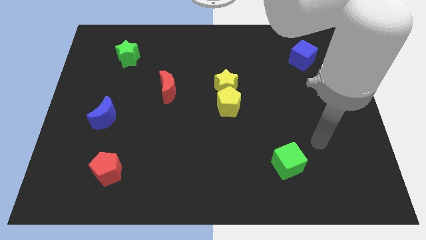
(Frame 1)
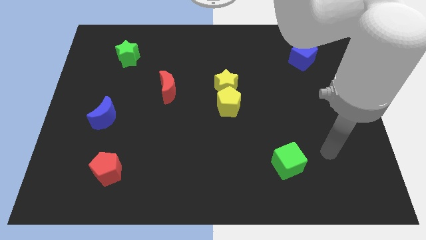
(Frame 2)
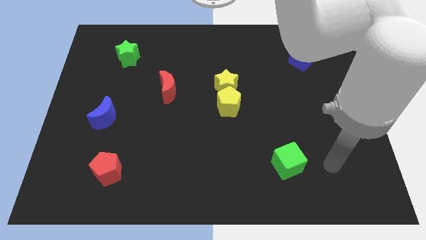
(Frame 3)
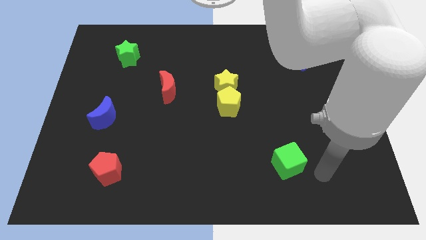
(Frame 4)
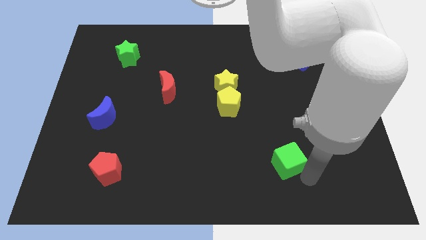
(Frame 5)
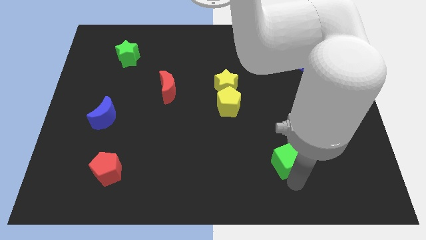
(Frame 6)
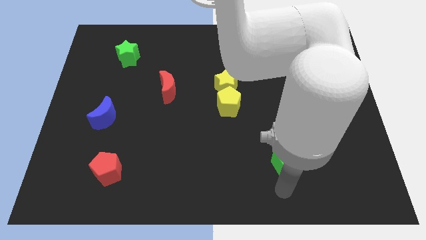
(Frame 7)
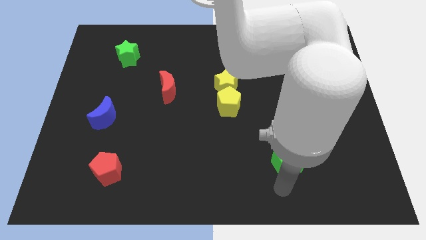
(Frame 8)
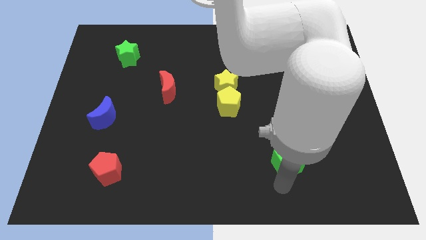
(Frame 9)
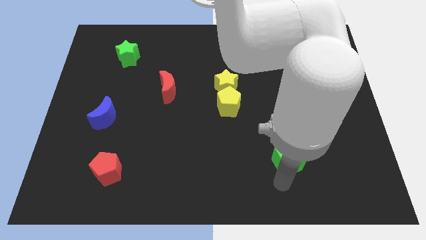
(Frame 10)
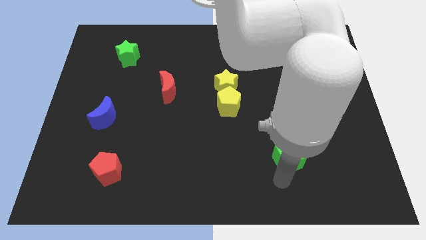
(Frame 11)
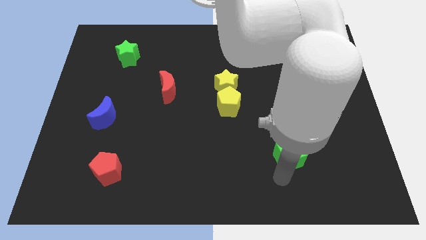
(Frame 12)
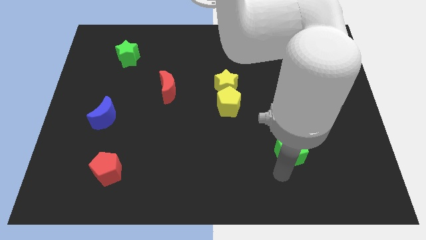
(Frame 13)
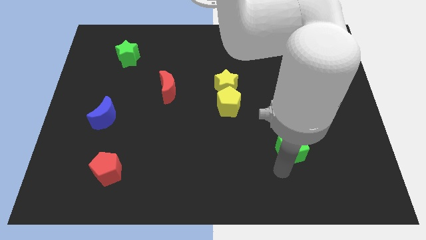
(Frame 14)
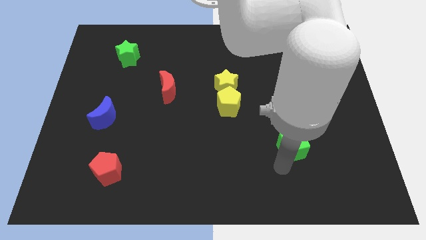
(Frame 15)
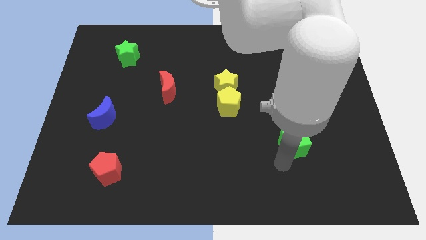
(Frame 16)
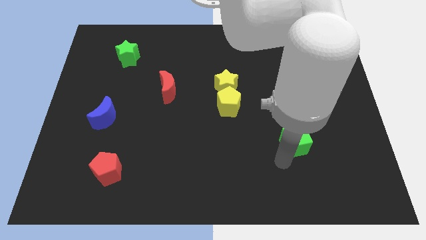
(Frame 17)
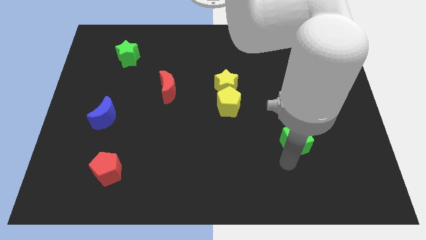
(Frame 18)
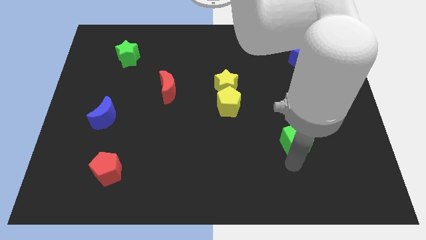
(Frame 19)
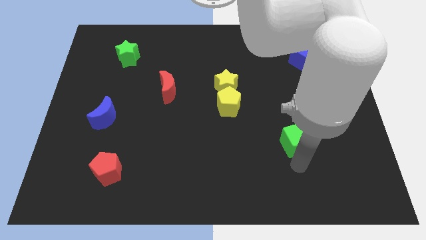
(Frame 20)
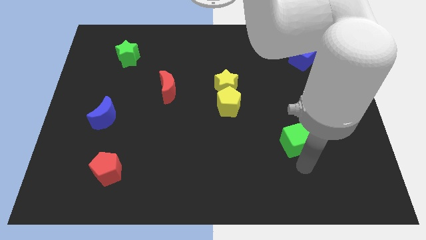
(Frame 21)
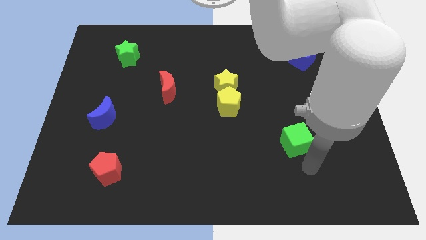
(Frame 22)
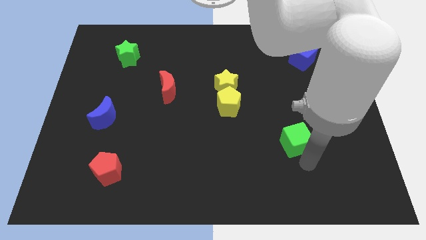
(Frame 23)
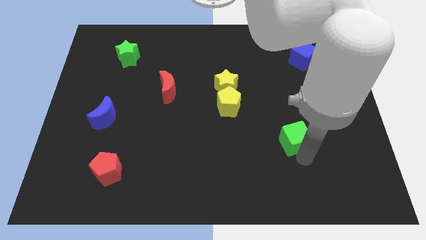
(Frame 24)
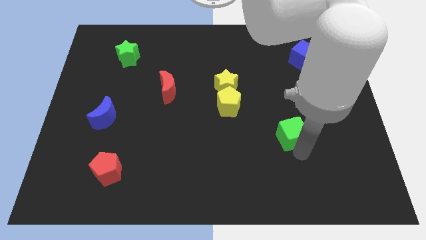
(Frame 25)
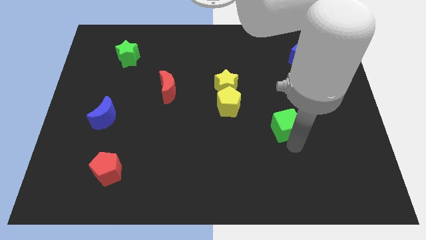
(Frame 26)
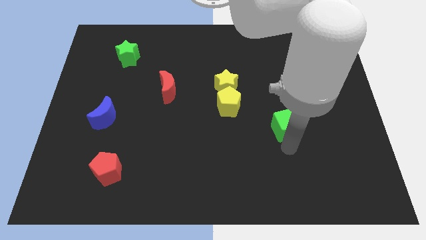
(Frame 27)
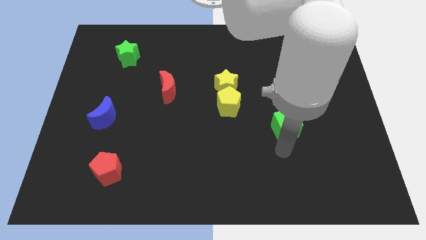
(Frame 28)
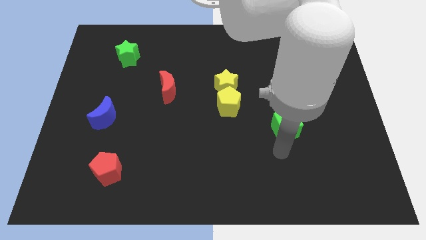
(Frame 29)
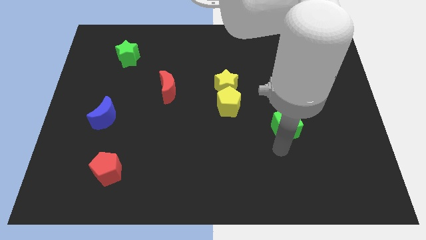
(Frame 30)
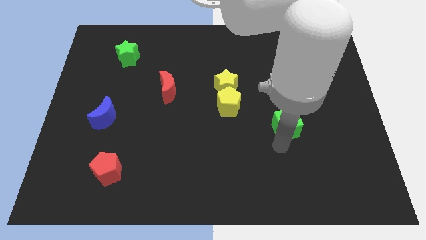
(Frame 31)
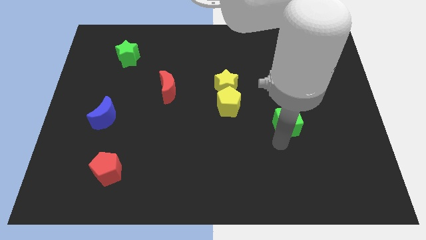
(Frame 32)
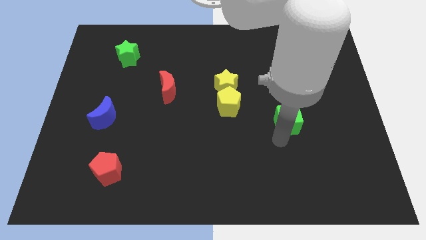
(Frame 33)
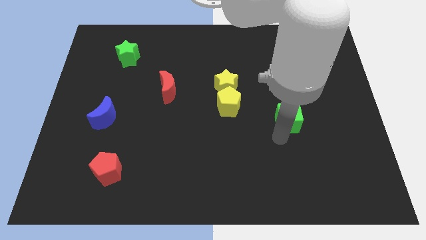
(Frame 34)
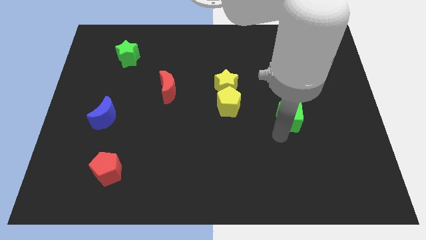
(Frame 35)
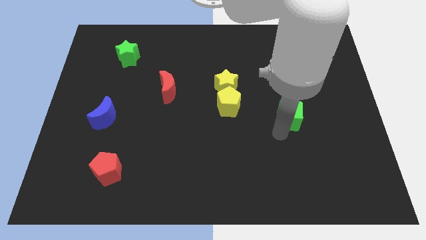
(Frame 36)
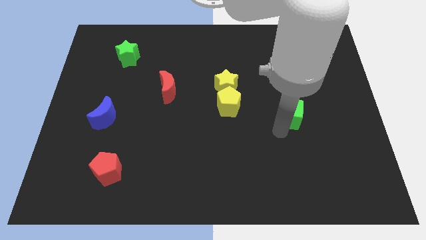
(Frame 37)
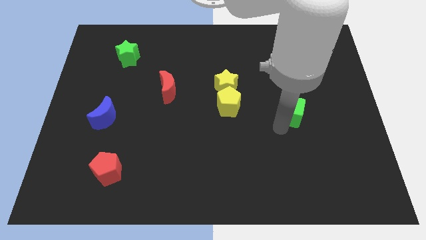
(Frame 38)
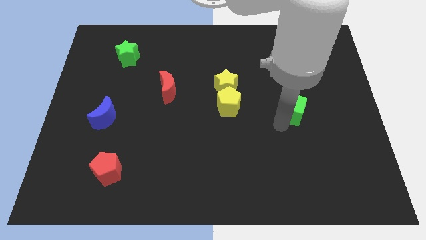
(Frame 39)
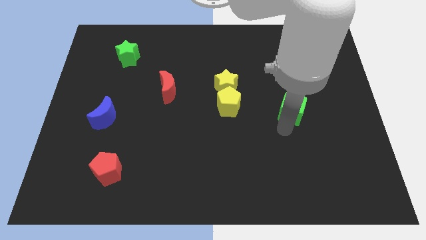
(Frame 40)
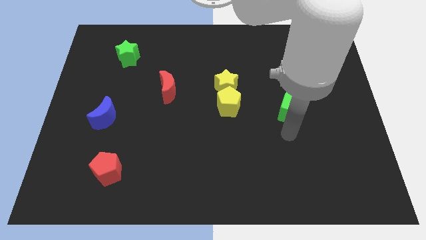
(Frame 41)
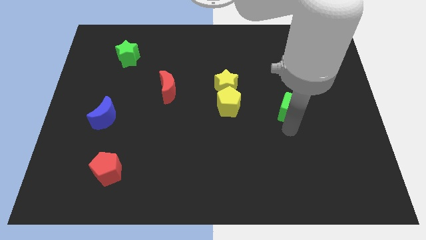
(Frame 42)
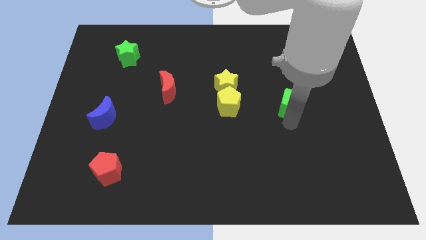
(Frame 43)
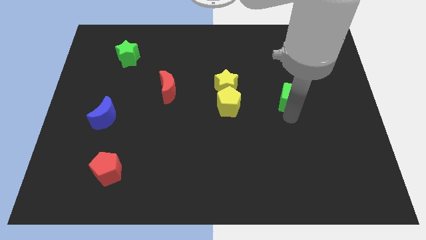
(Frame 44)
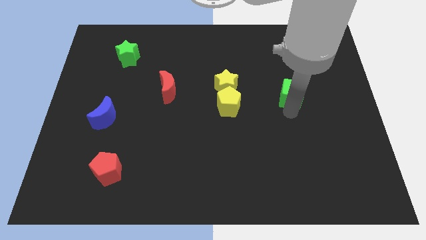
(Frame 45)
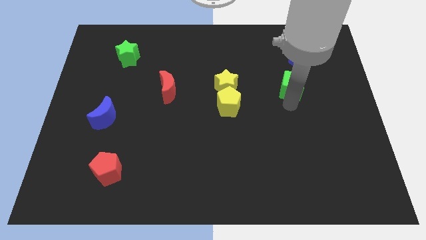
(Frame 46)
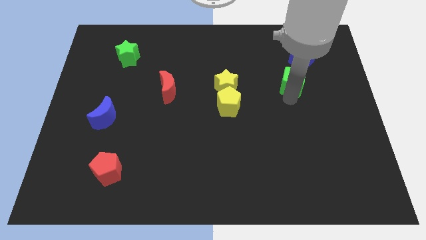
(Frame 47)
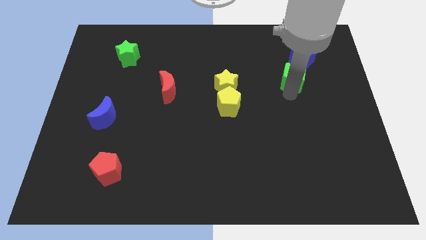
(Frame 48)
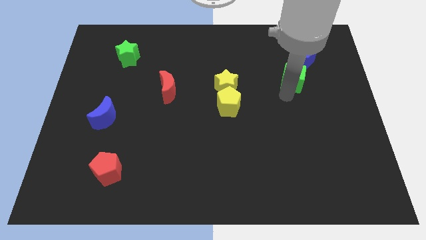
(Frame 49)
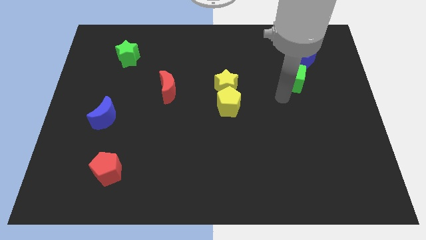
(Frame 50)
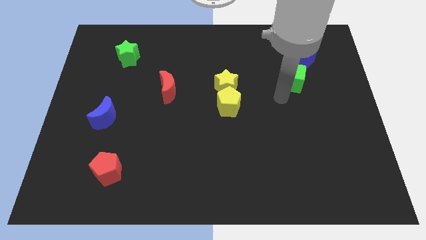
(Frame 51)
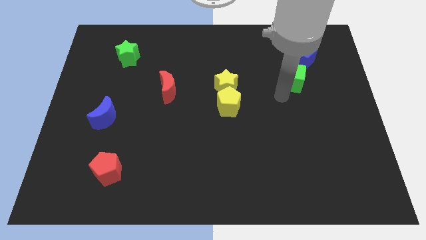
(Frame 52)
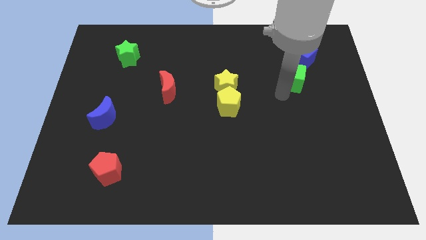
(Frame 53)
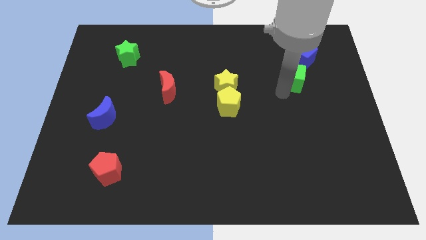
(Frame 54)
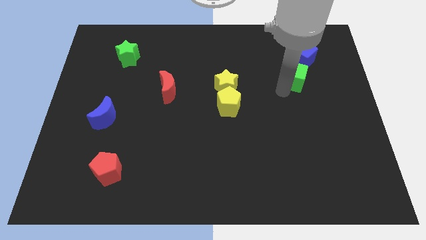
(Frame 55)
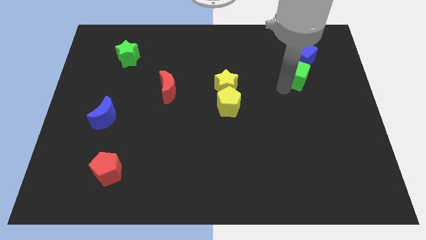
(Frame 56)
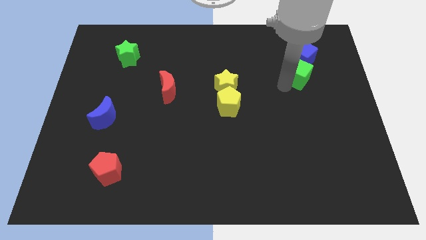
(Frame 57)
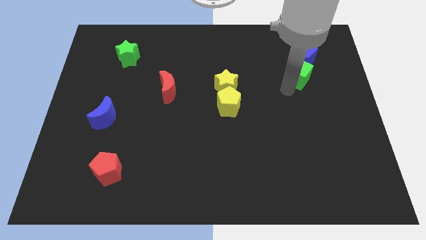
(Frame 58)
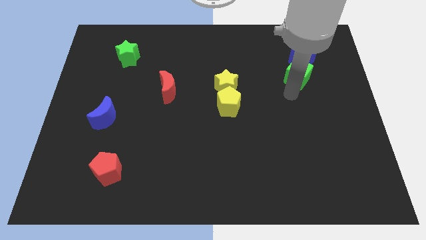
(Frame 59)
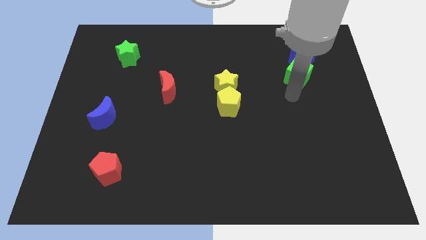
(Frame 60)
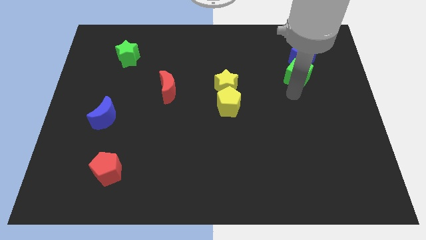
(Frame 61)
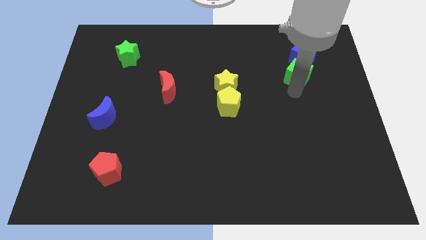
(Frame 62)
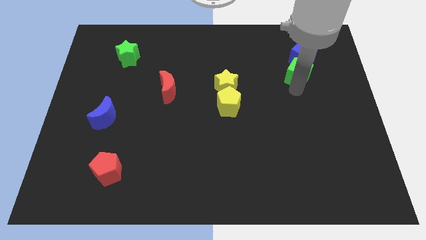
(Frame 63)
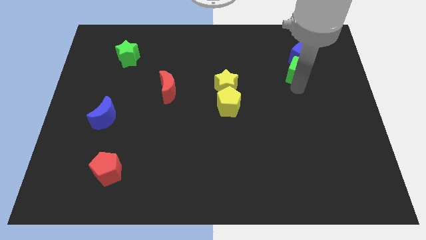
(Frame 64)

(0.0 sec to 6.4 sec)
put the green cube next to the blue cube
